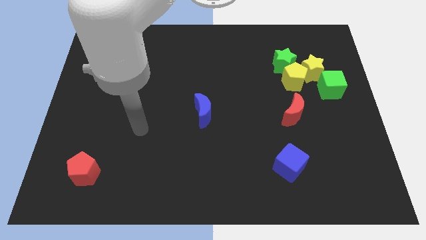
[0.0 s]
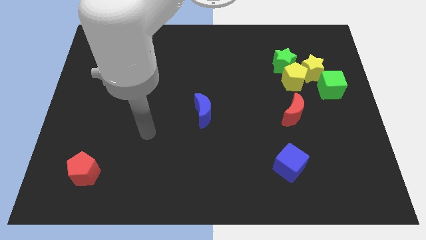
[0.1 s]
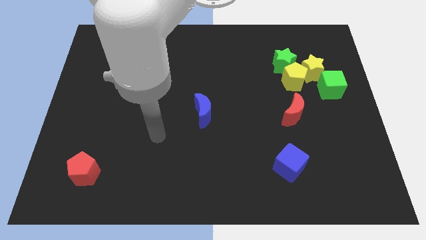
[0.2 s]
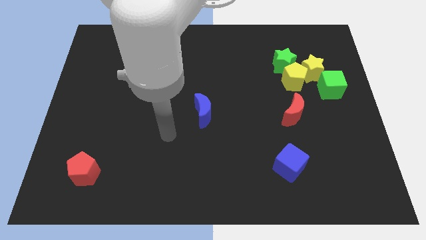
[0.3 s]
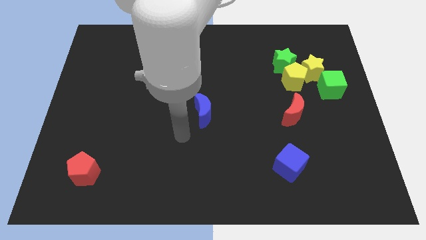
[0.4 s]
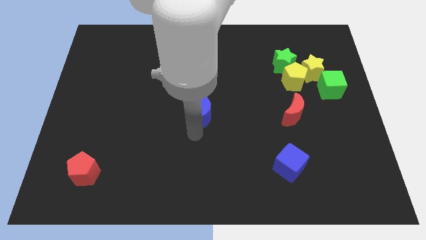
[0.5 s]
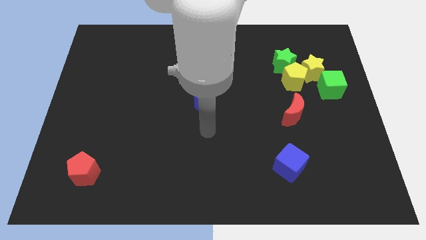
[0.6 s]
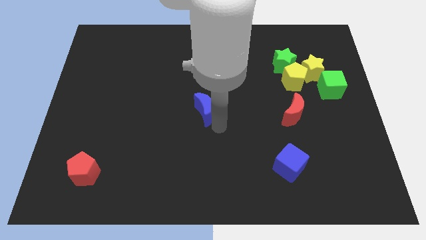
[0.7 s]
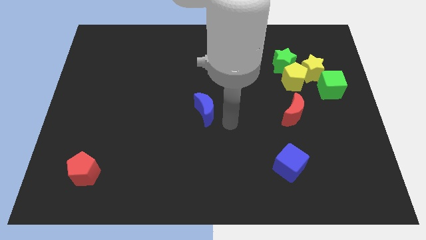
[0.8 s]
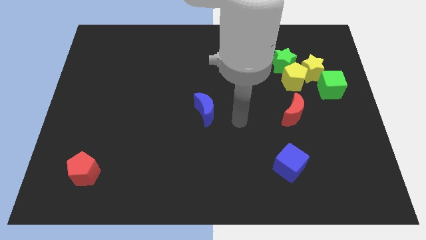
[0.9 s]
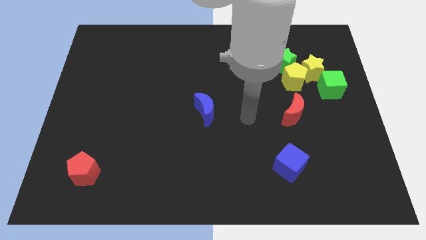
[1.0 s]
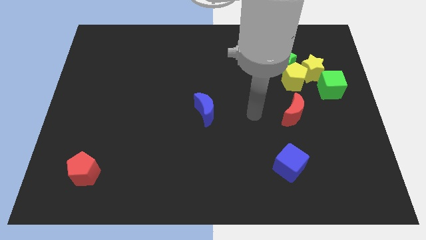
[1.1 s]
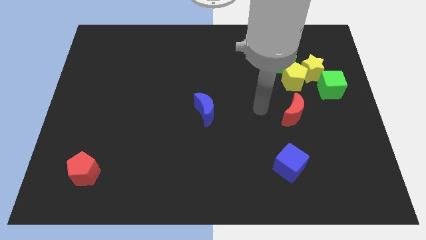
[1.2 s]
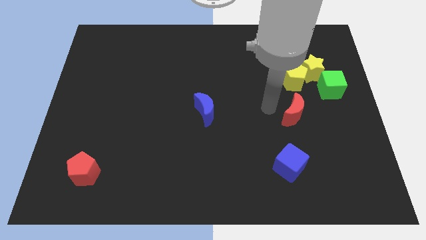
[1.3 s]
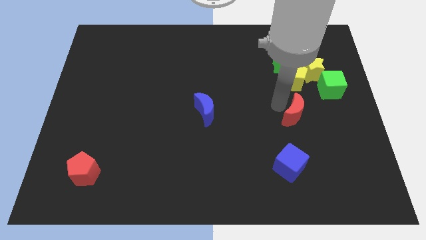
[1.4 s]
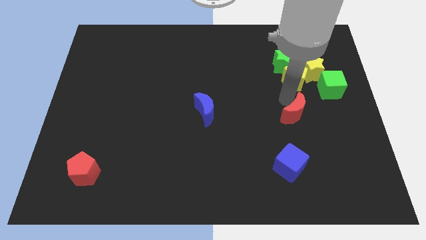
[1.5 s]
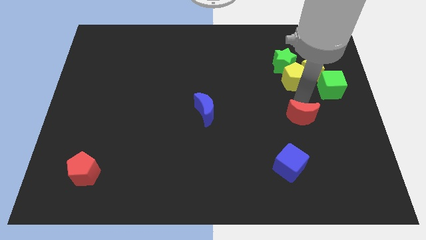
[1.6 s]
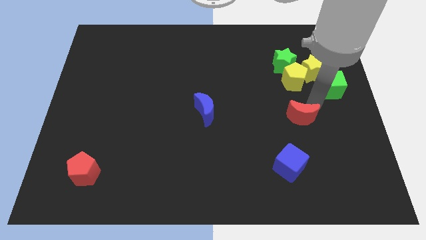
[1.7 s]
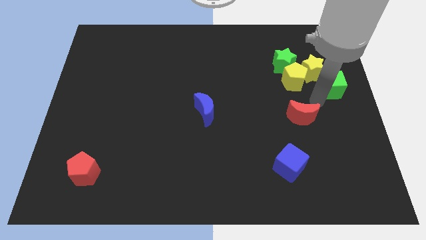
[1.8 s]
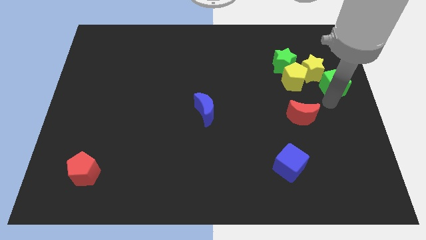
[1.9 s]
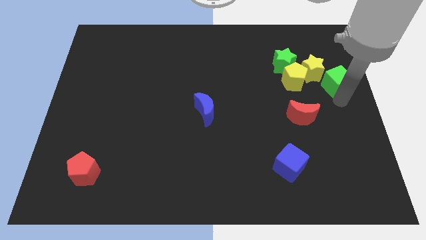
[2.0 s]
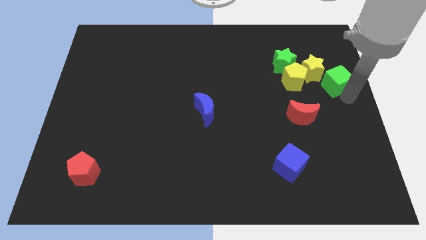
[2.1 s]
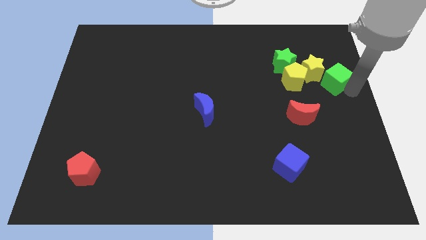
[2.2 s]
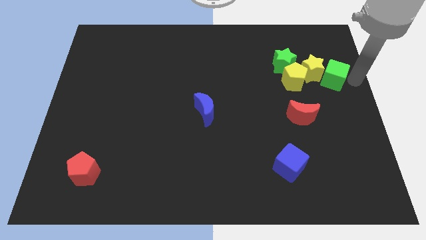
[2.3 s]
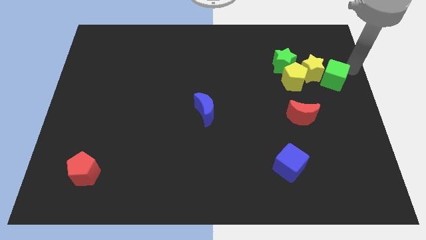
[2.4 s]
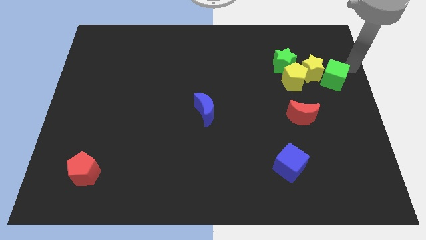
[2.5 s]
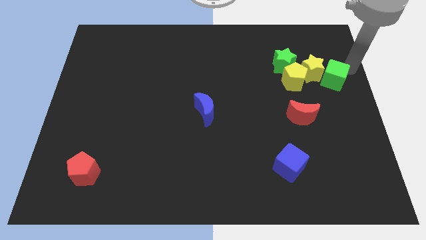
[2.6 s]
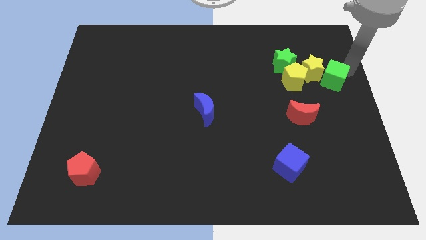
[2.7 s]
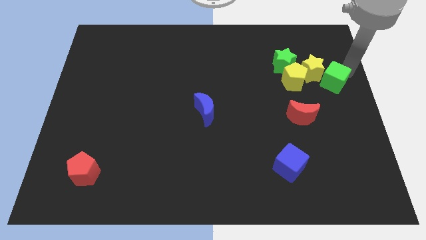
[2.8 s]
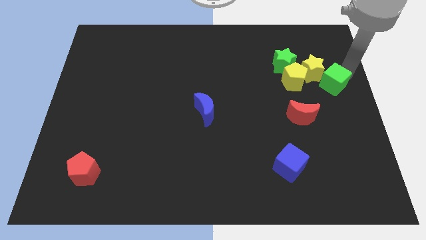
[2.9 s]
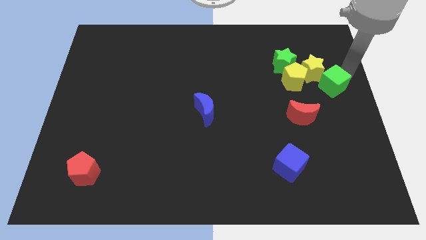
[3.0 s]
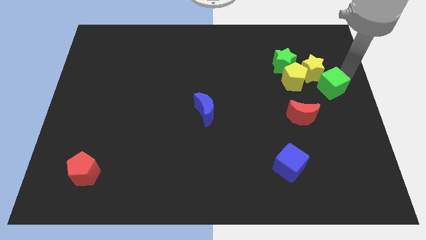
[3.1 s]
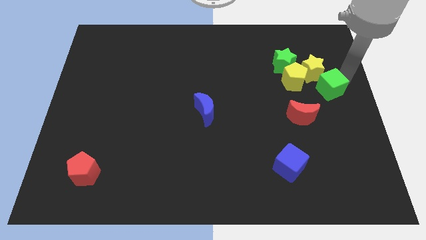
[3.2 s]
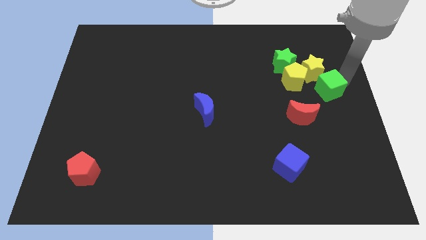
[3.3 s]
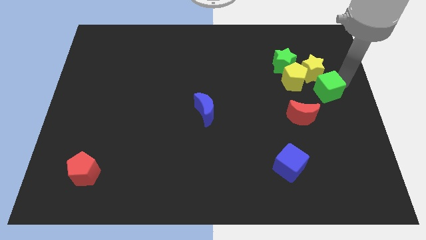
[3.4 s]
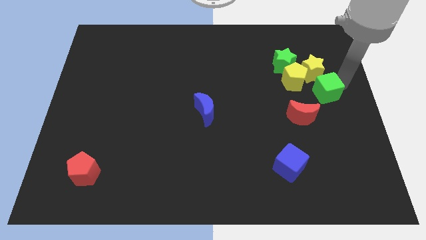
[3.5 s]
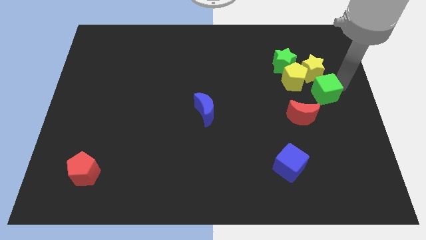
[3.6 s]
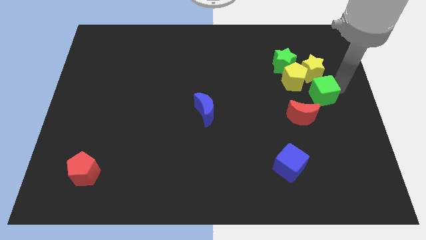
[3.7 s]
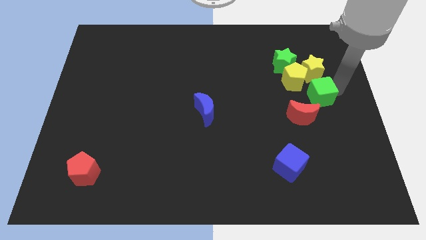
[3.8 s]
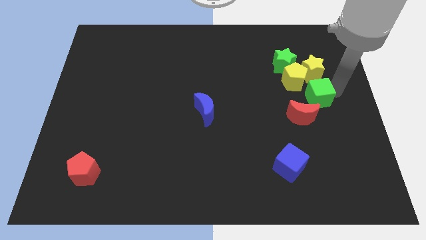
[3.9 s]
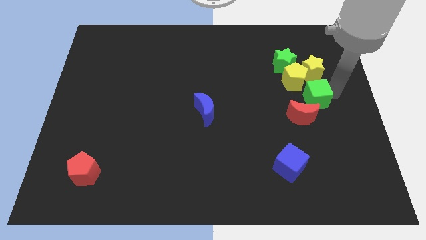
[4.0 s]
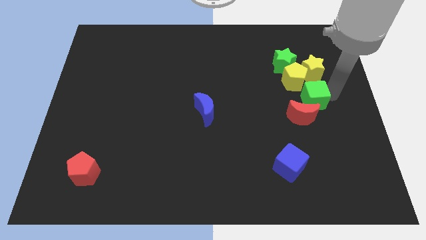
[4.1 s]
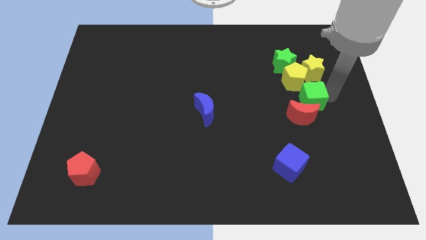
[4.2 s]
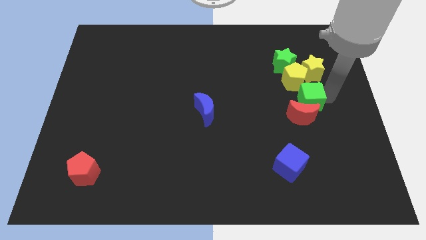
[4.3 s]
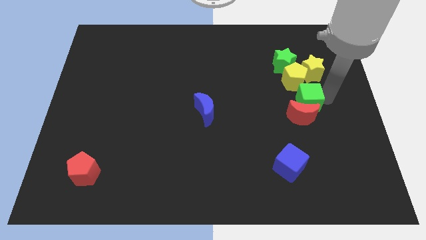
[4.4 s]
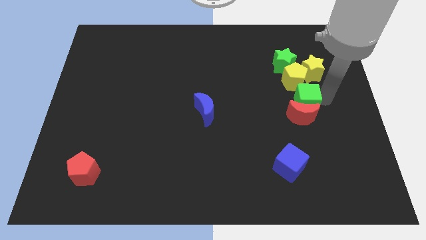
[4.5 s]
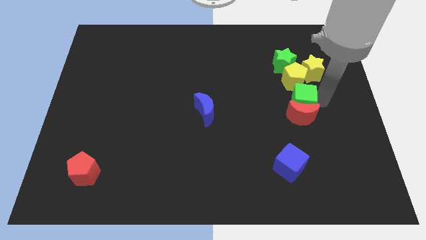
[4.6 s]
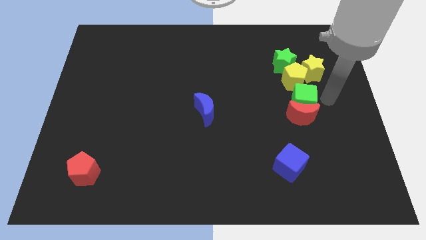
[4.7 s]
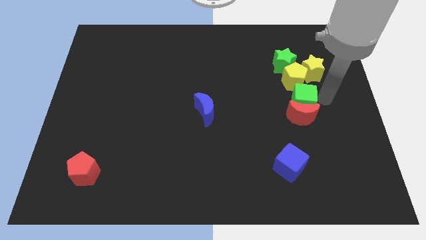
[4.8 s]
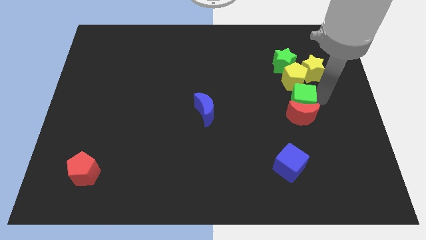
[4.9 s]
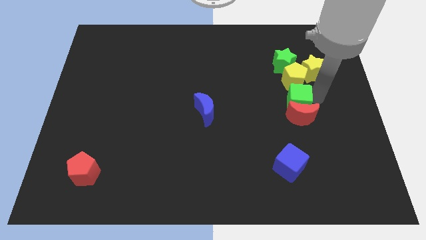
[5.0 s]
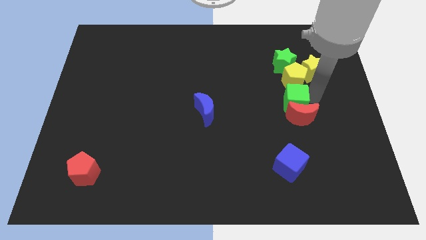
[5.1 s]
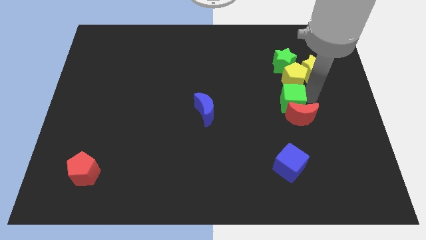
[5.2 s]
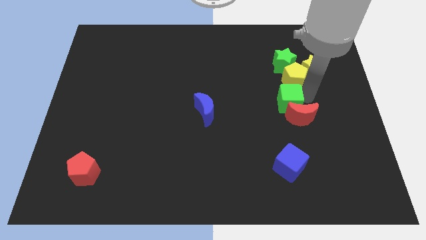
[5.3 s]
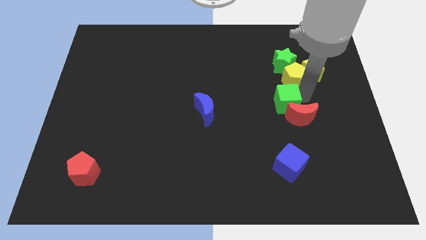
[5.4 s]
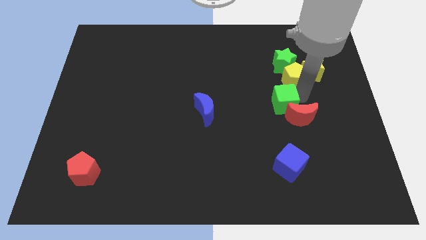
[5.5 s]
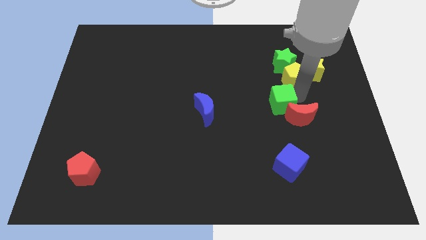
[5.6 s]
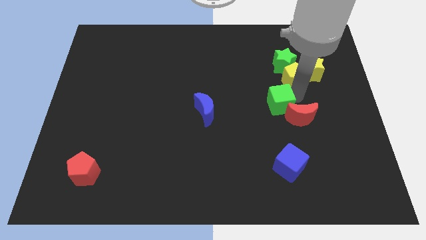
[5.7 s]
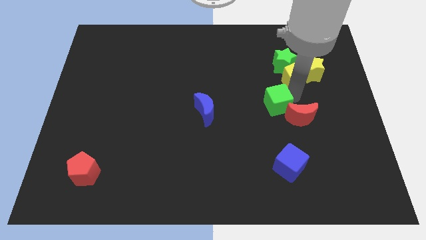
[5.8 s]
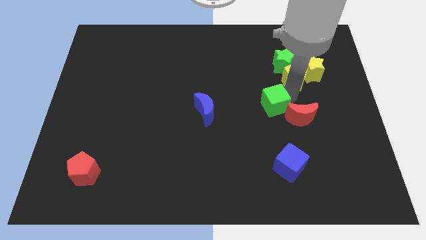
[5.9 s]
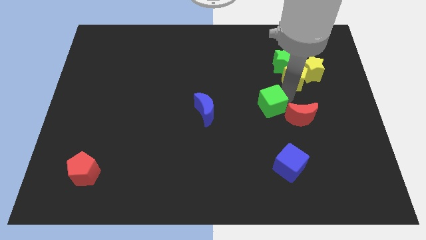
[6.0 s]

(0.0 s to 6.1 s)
push the green cube right of the blue moon

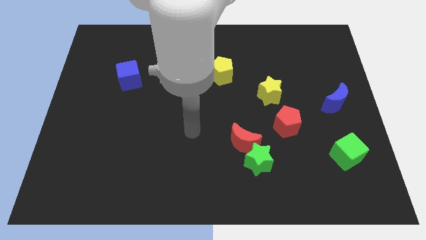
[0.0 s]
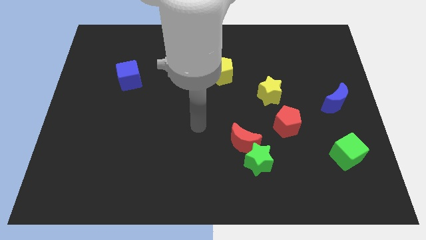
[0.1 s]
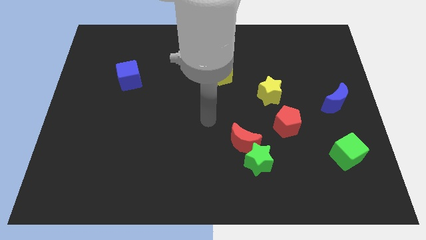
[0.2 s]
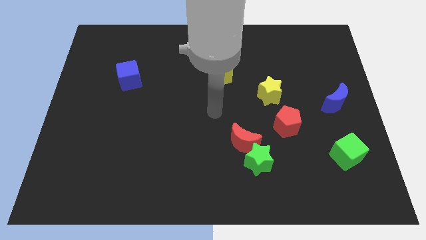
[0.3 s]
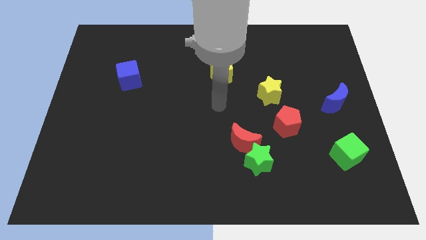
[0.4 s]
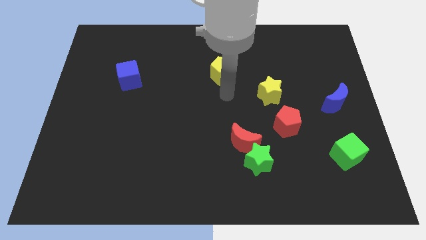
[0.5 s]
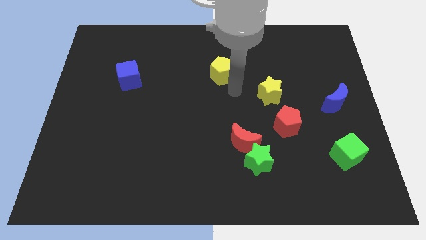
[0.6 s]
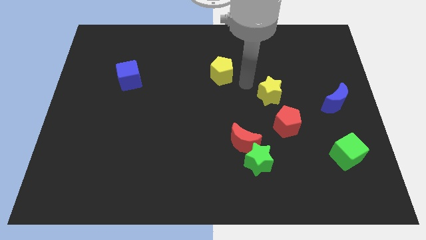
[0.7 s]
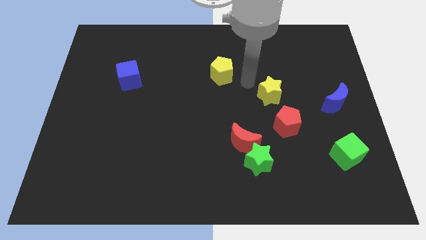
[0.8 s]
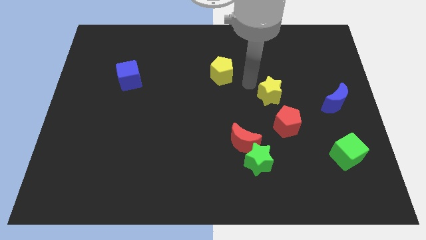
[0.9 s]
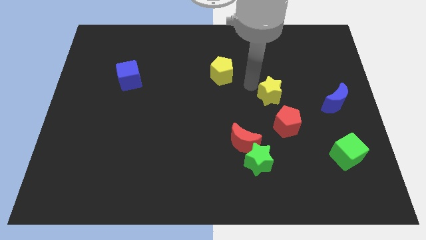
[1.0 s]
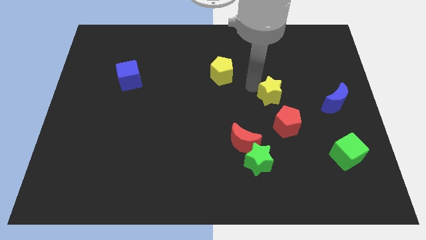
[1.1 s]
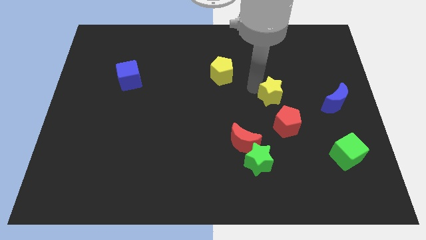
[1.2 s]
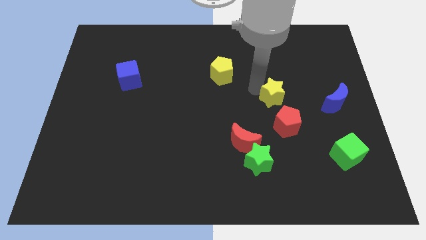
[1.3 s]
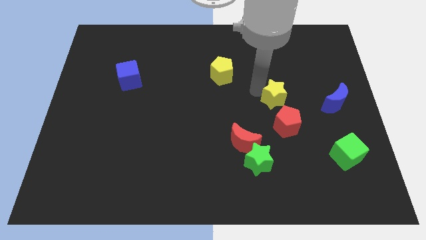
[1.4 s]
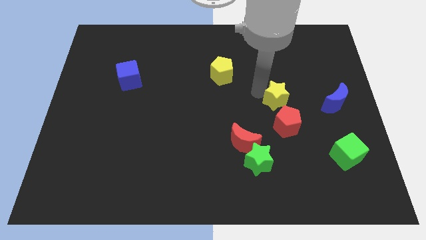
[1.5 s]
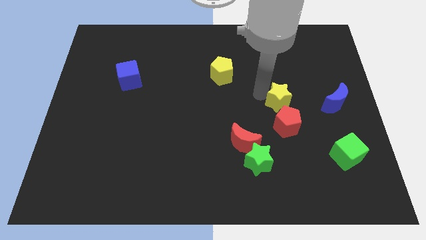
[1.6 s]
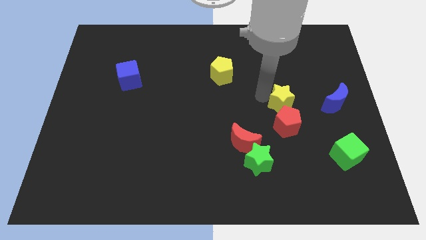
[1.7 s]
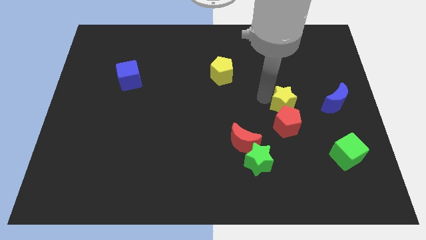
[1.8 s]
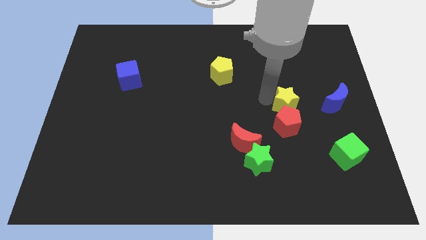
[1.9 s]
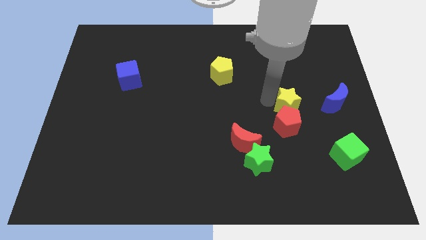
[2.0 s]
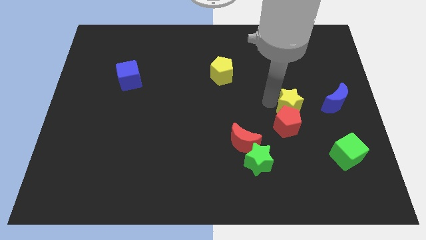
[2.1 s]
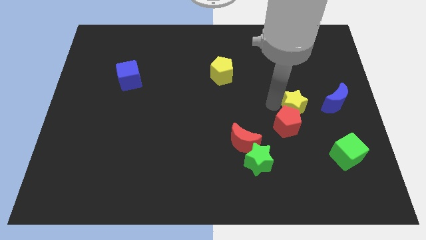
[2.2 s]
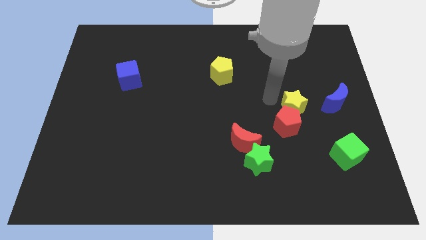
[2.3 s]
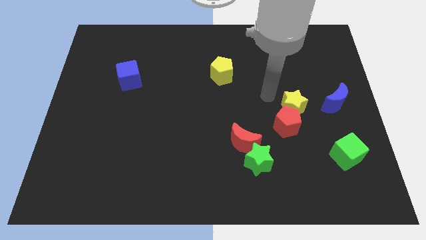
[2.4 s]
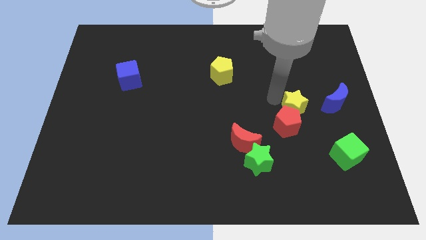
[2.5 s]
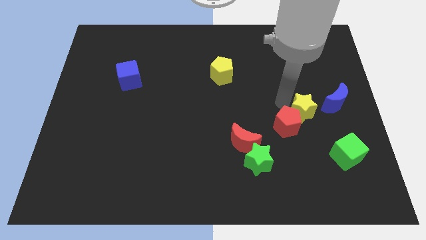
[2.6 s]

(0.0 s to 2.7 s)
slide the yellow star right of the red pentagon
